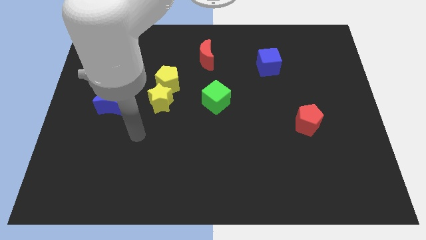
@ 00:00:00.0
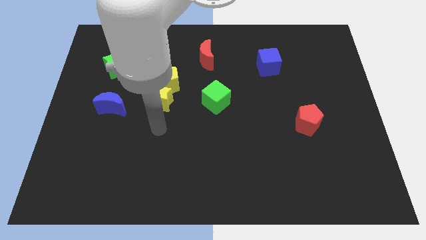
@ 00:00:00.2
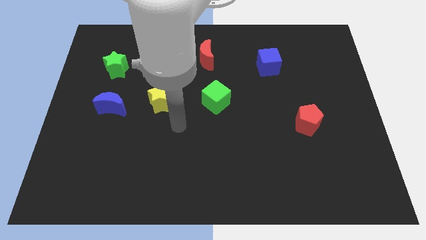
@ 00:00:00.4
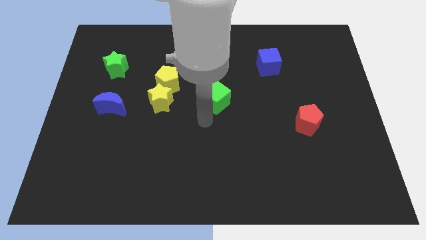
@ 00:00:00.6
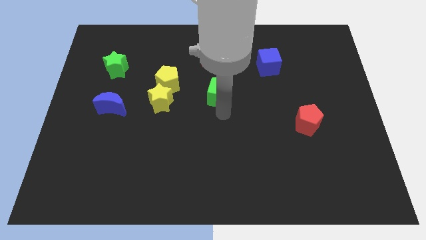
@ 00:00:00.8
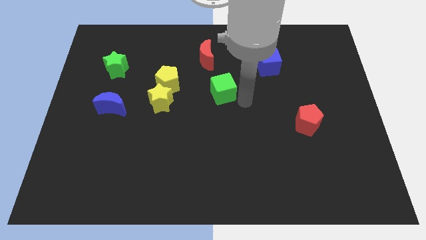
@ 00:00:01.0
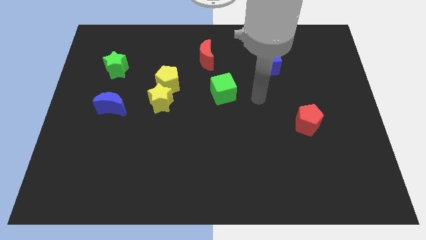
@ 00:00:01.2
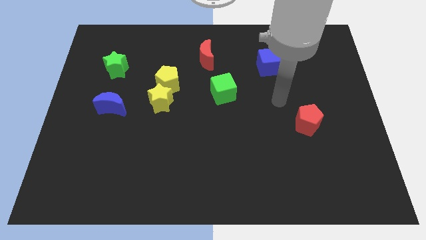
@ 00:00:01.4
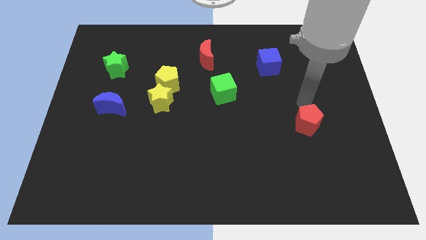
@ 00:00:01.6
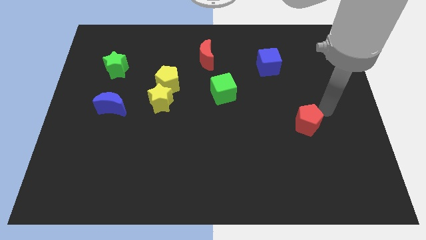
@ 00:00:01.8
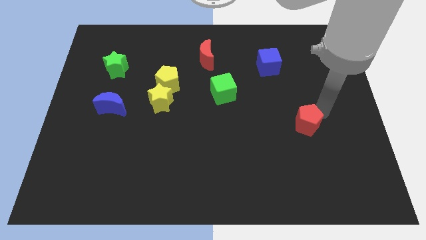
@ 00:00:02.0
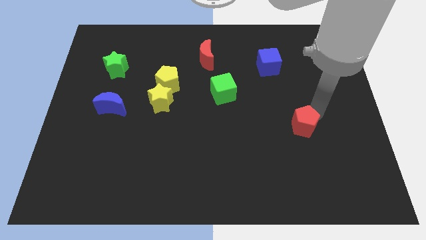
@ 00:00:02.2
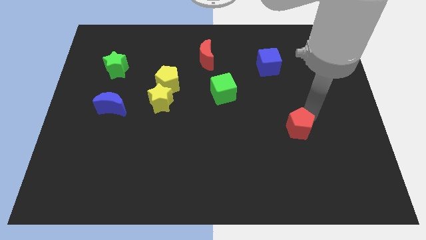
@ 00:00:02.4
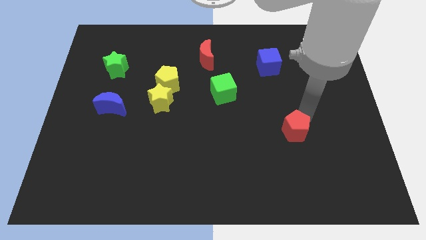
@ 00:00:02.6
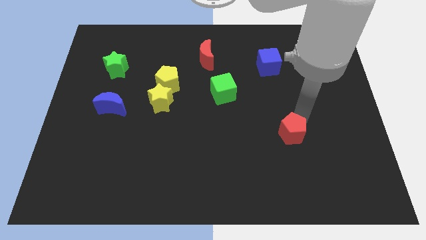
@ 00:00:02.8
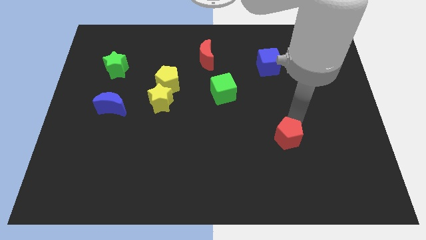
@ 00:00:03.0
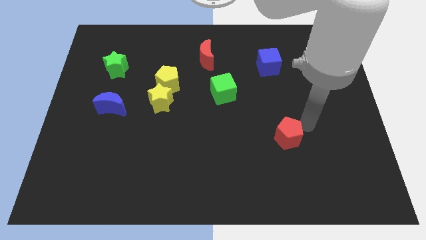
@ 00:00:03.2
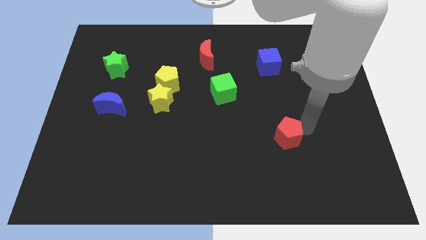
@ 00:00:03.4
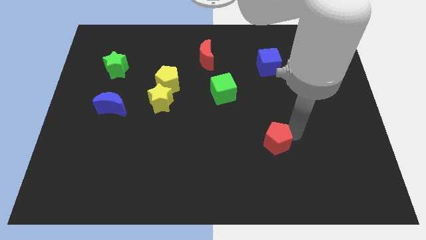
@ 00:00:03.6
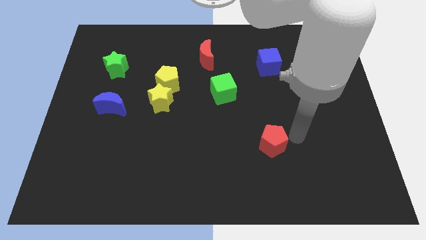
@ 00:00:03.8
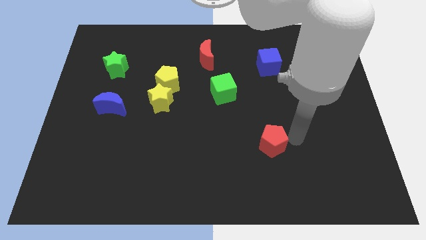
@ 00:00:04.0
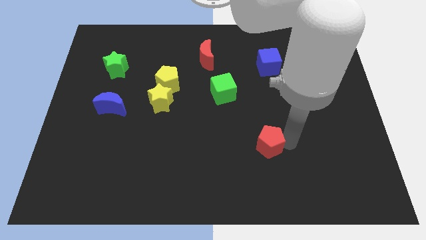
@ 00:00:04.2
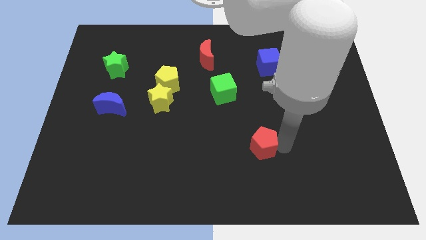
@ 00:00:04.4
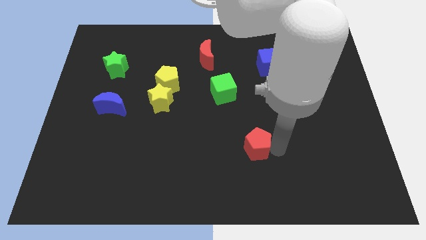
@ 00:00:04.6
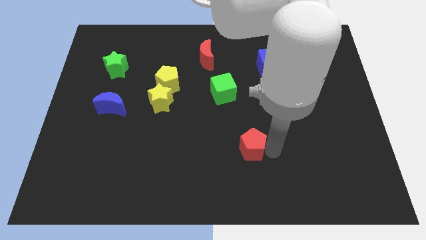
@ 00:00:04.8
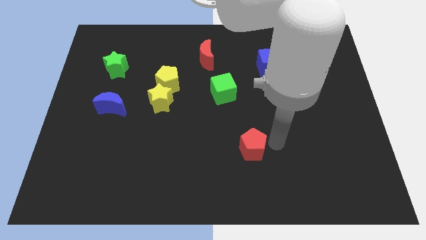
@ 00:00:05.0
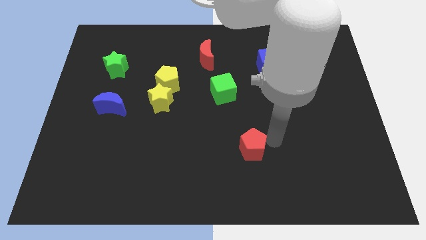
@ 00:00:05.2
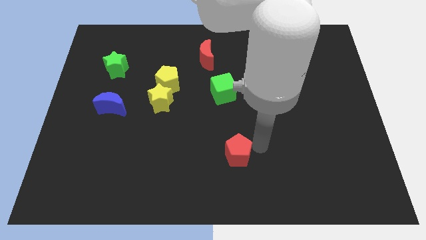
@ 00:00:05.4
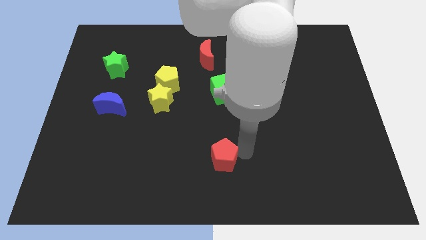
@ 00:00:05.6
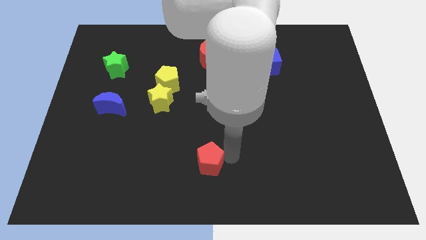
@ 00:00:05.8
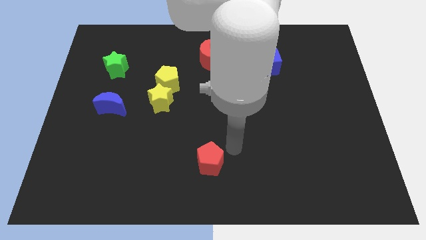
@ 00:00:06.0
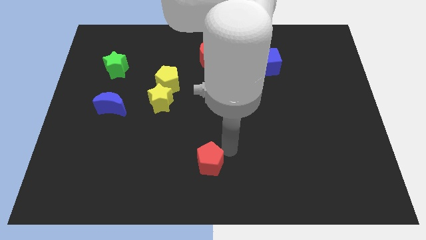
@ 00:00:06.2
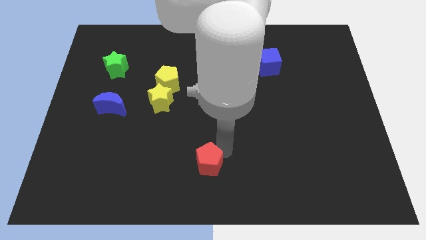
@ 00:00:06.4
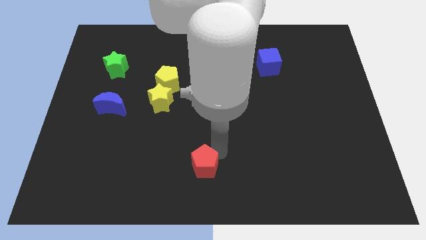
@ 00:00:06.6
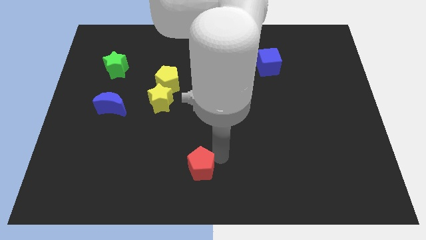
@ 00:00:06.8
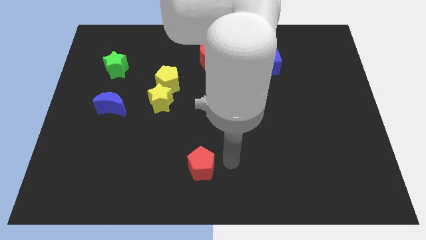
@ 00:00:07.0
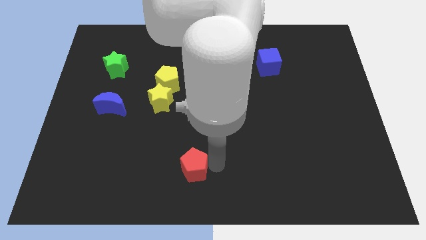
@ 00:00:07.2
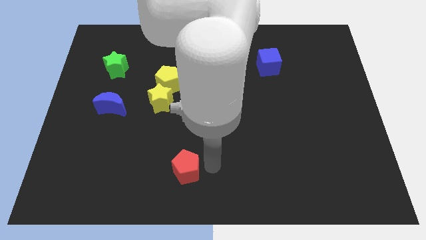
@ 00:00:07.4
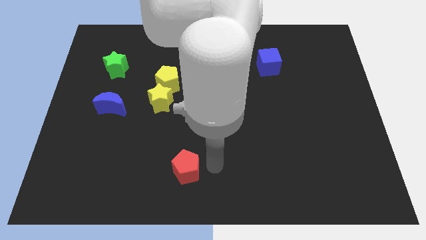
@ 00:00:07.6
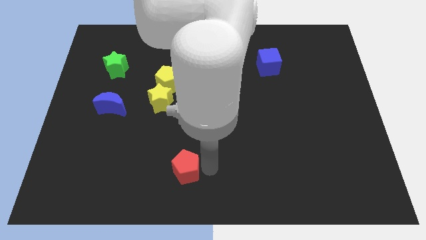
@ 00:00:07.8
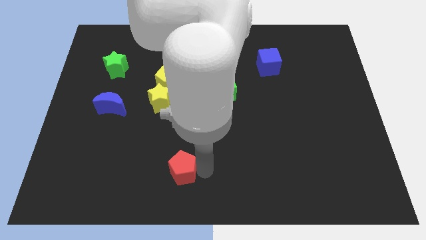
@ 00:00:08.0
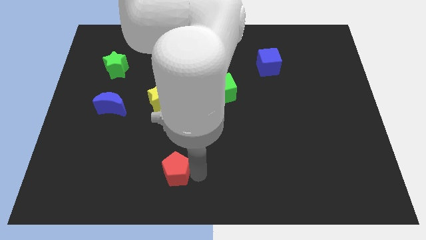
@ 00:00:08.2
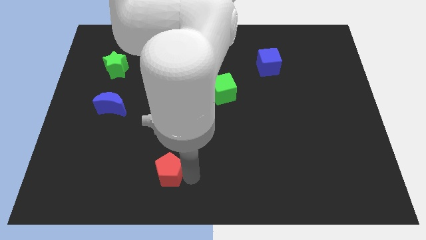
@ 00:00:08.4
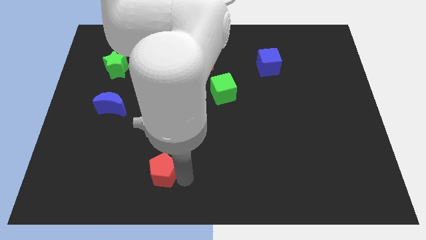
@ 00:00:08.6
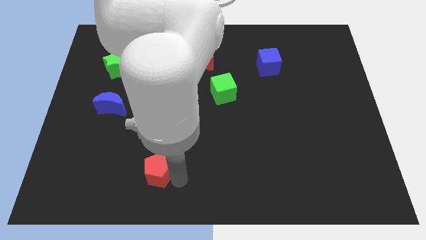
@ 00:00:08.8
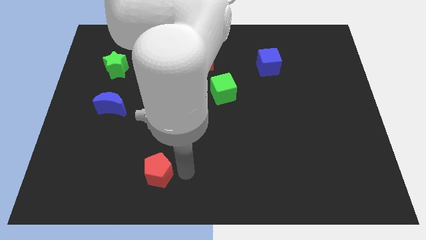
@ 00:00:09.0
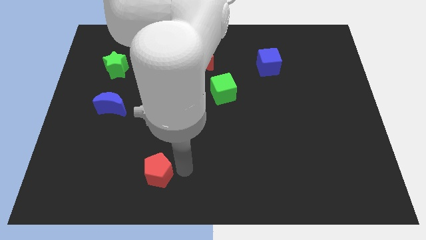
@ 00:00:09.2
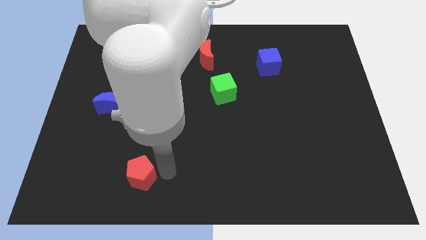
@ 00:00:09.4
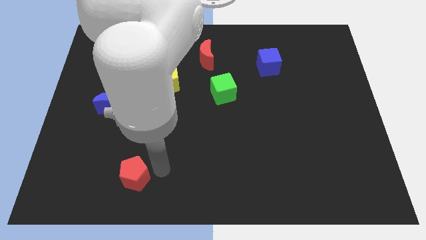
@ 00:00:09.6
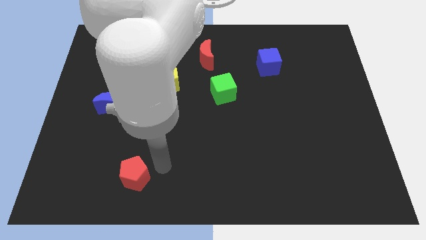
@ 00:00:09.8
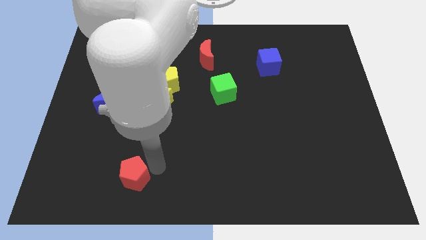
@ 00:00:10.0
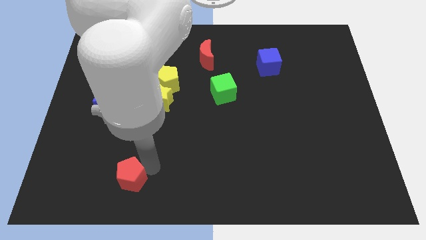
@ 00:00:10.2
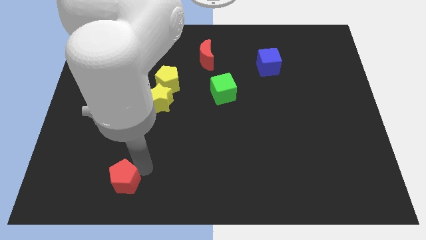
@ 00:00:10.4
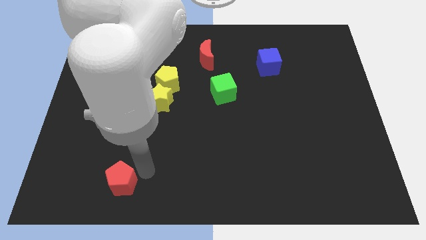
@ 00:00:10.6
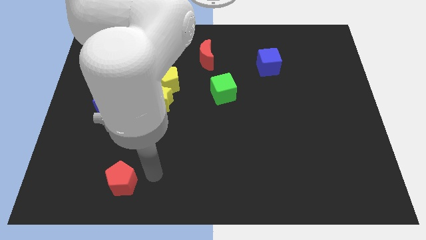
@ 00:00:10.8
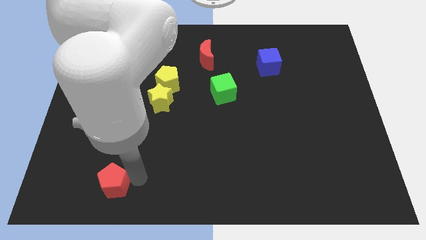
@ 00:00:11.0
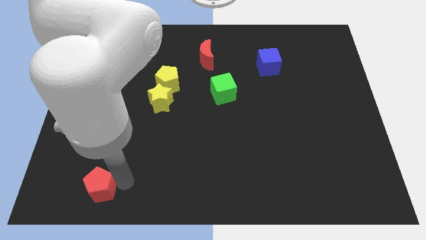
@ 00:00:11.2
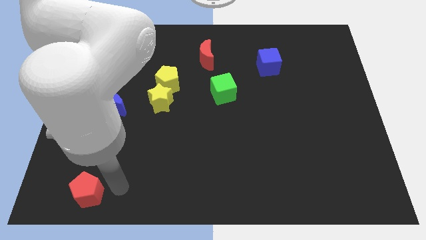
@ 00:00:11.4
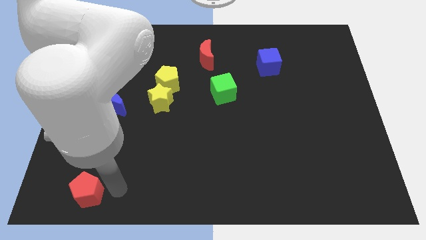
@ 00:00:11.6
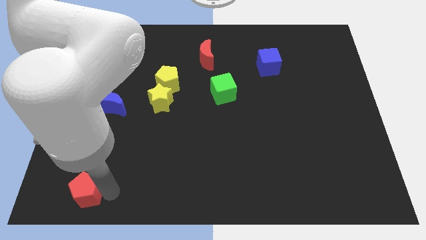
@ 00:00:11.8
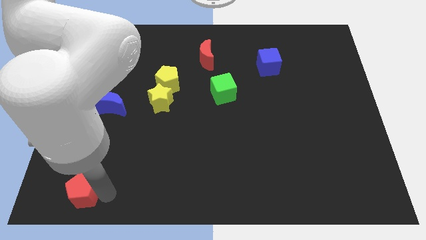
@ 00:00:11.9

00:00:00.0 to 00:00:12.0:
move the red pentagon to the bottom left of the board
